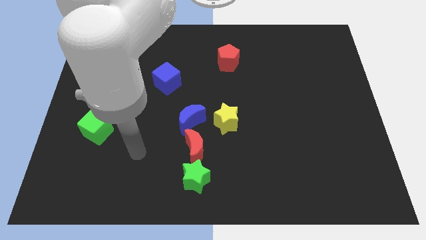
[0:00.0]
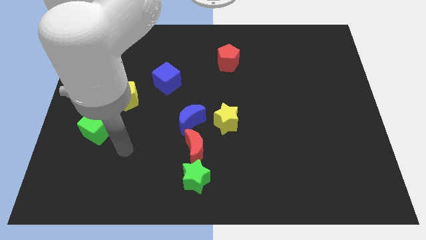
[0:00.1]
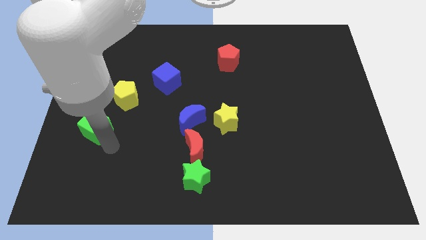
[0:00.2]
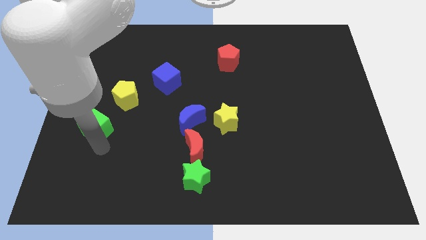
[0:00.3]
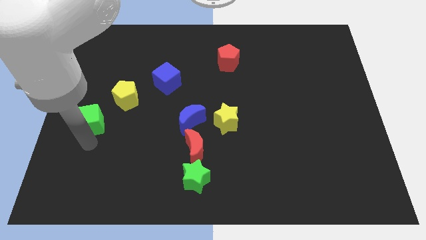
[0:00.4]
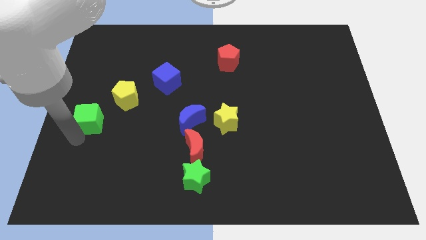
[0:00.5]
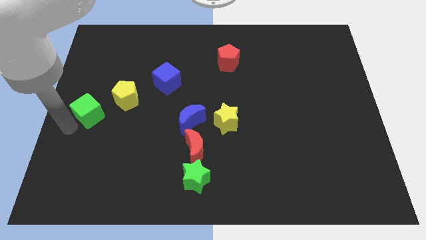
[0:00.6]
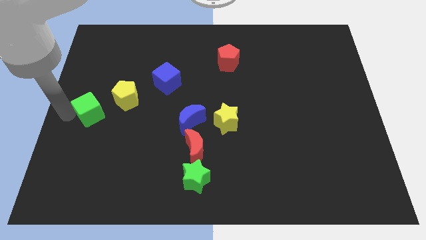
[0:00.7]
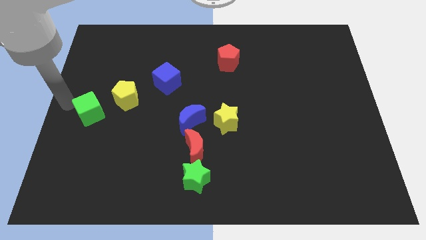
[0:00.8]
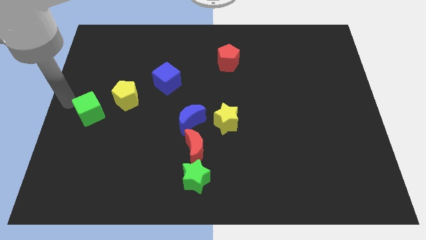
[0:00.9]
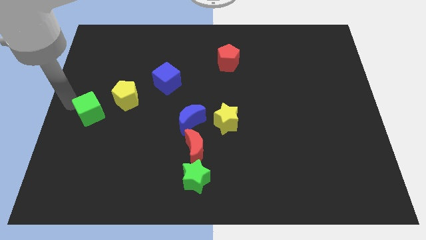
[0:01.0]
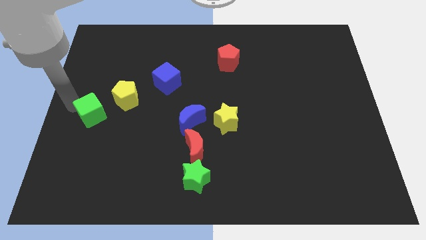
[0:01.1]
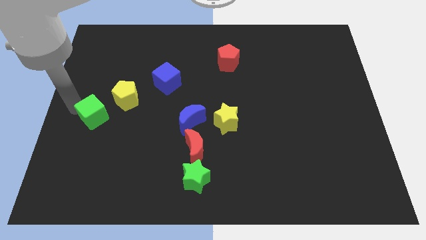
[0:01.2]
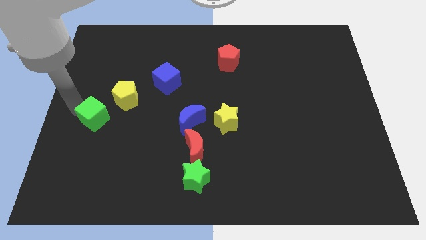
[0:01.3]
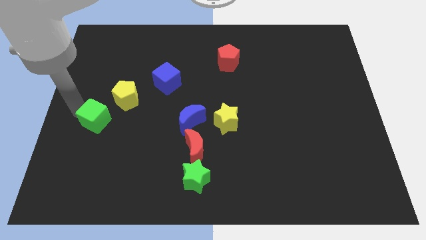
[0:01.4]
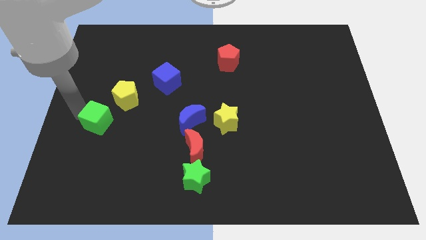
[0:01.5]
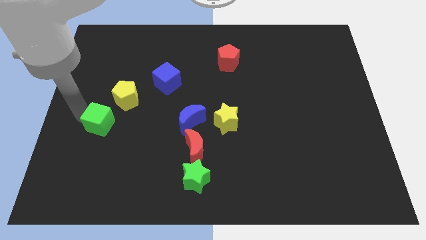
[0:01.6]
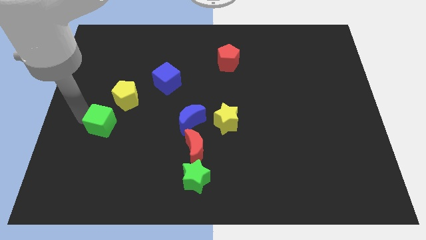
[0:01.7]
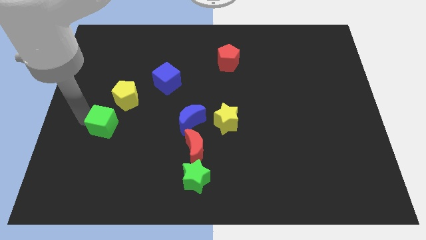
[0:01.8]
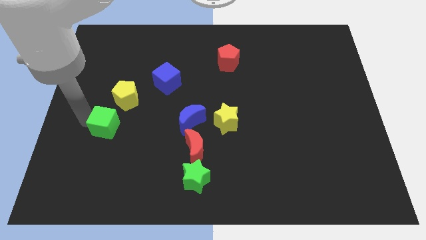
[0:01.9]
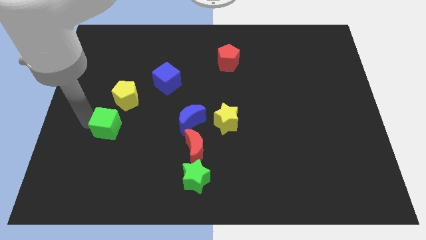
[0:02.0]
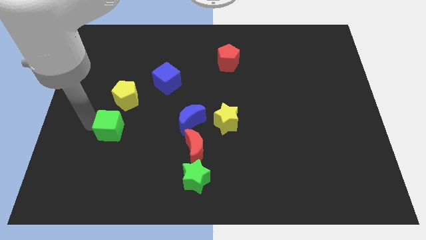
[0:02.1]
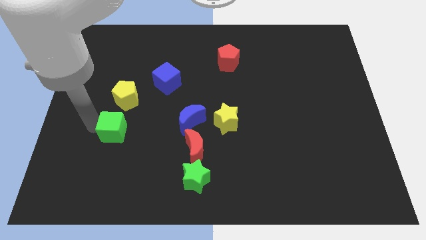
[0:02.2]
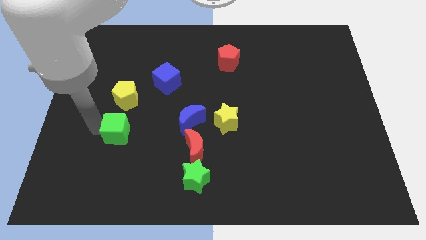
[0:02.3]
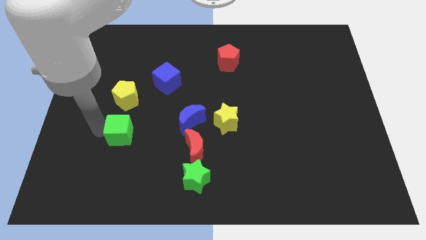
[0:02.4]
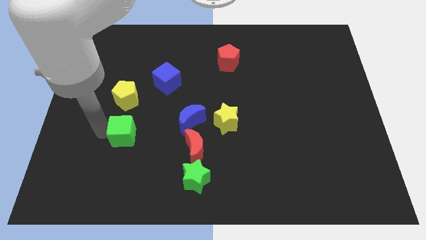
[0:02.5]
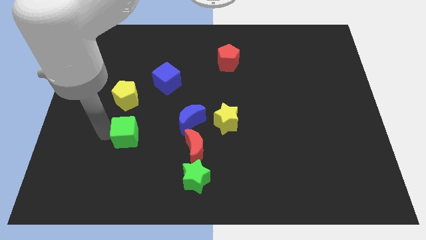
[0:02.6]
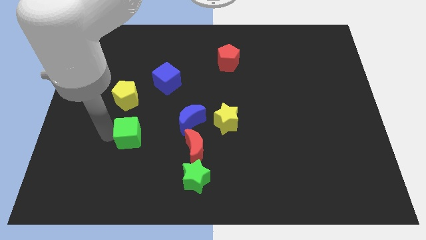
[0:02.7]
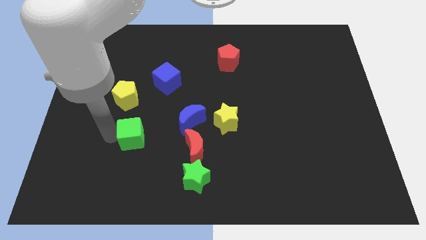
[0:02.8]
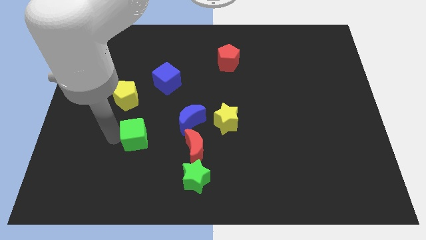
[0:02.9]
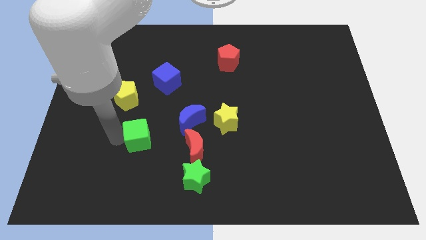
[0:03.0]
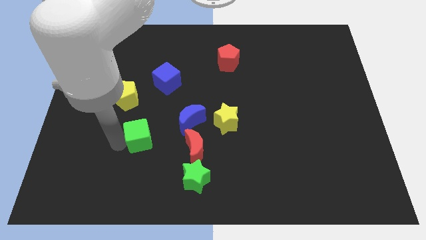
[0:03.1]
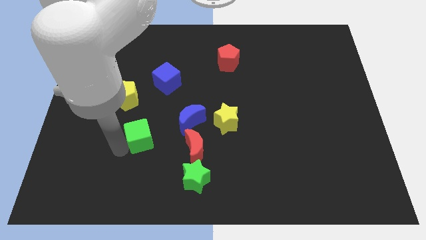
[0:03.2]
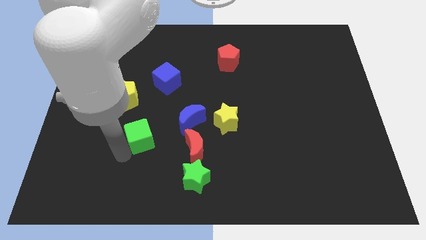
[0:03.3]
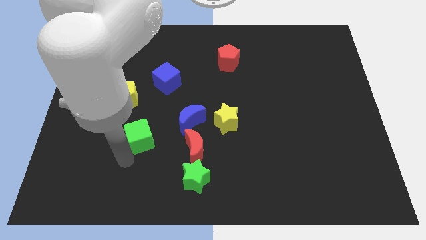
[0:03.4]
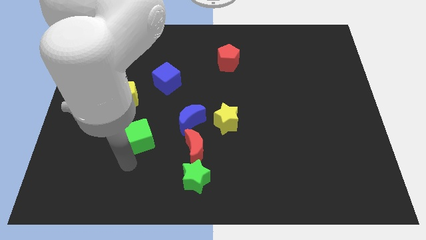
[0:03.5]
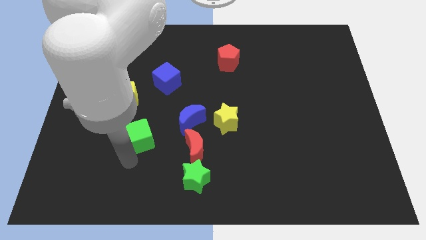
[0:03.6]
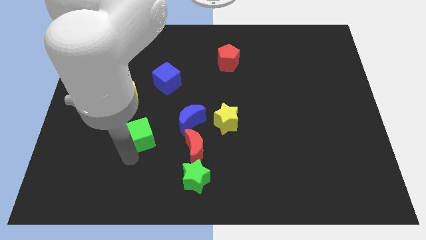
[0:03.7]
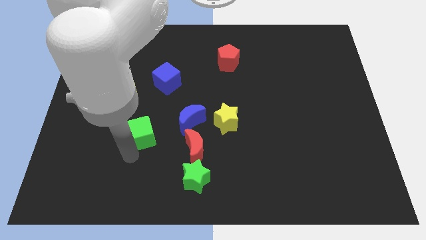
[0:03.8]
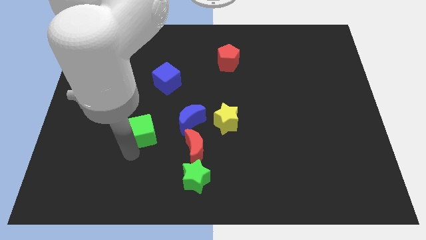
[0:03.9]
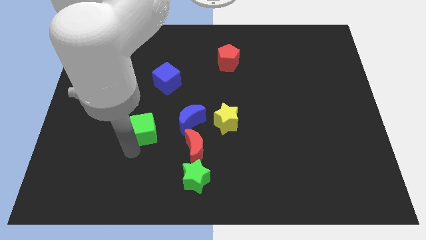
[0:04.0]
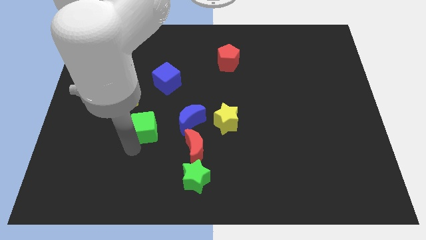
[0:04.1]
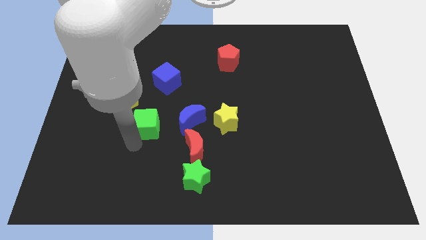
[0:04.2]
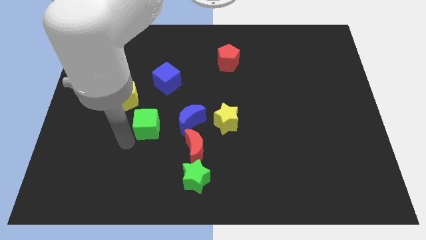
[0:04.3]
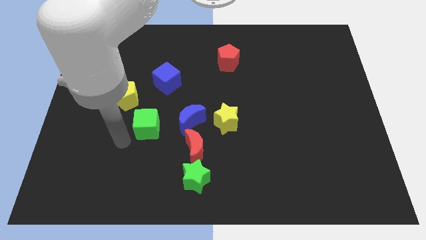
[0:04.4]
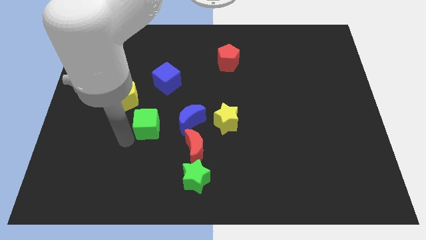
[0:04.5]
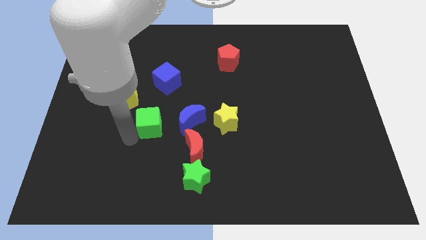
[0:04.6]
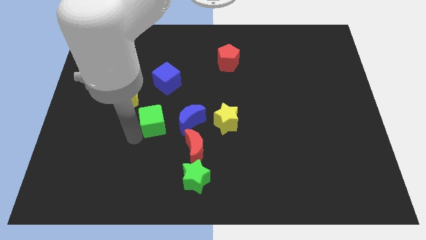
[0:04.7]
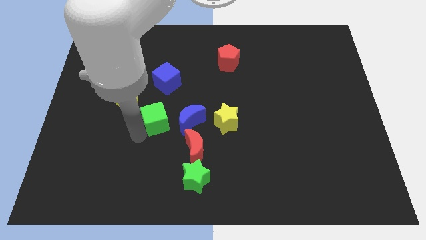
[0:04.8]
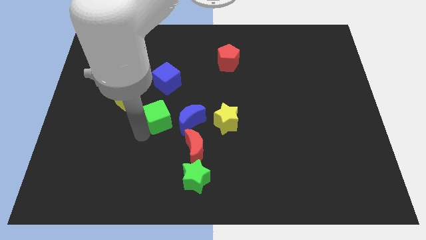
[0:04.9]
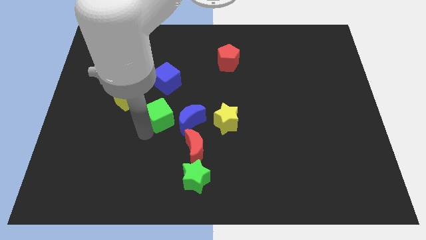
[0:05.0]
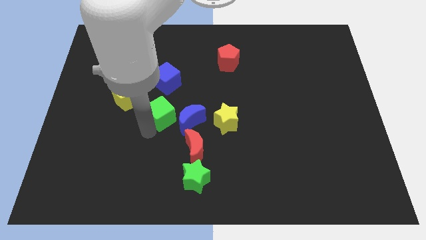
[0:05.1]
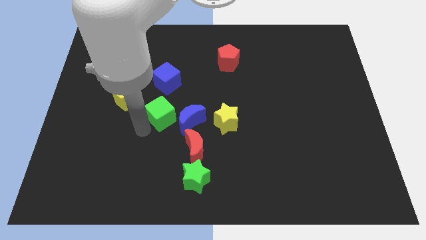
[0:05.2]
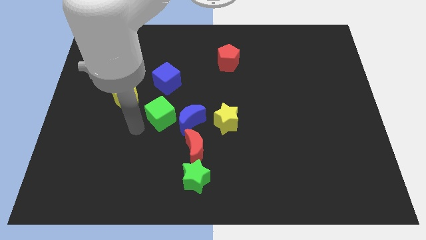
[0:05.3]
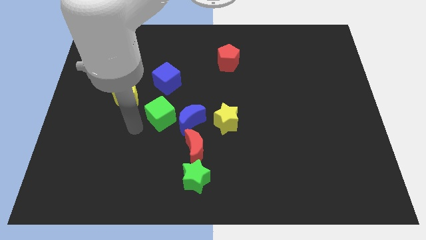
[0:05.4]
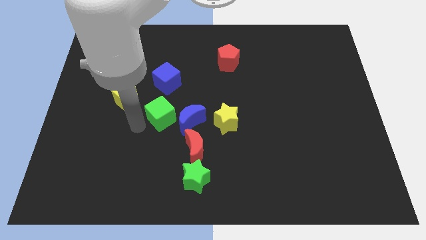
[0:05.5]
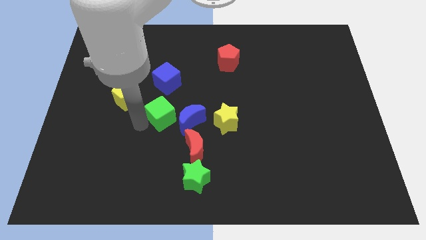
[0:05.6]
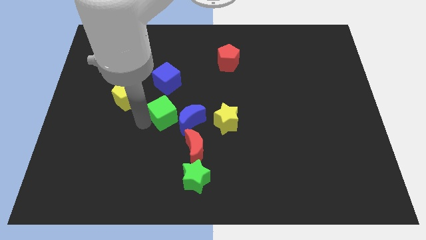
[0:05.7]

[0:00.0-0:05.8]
move the green cube to the center
